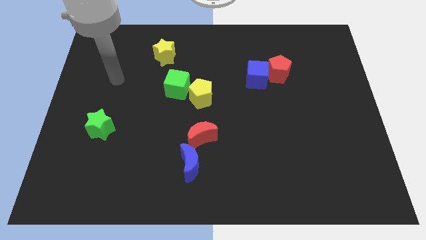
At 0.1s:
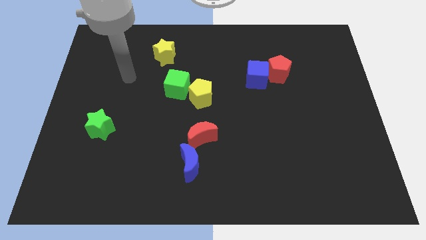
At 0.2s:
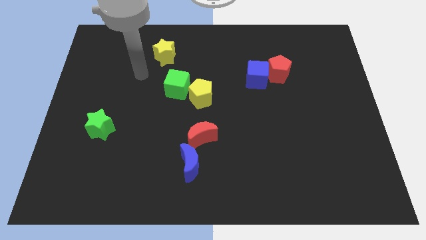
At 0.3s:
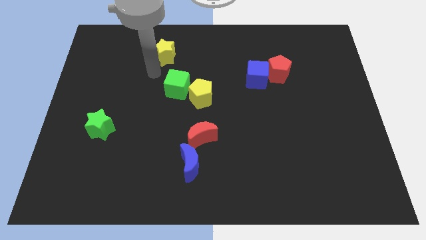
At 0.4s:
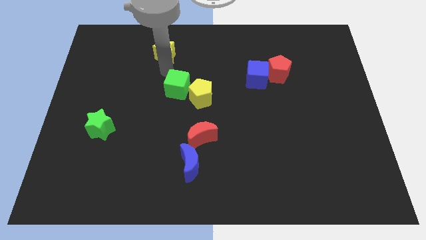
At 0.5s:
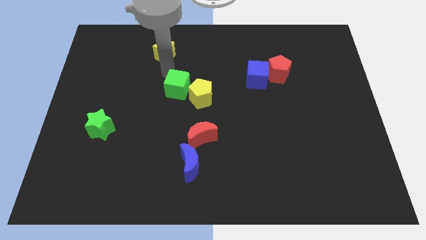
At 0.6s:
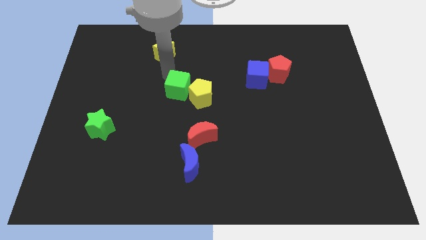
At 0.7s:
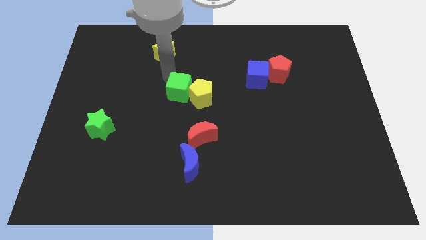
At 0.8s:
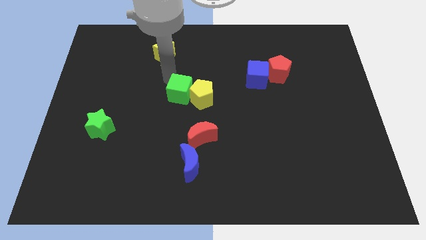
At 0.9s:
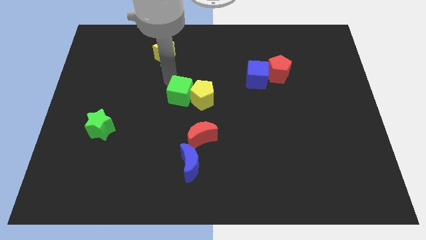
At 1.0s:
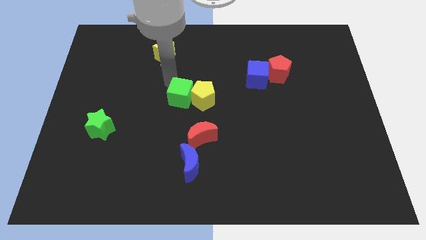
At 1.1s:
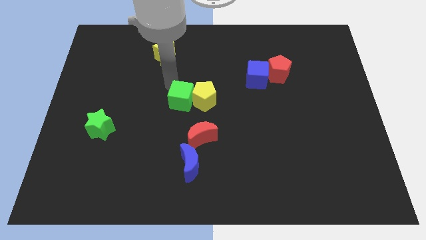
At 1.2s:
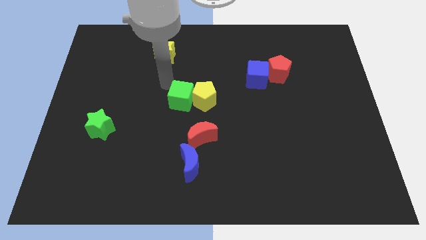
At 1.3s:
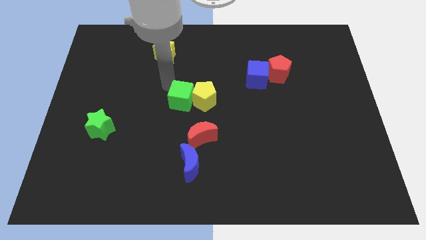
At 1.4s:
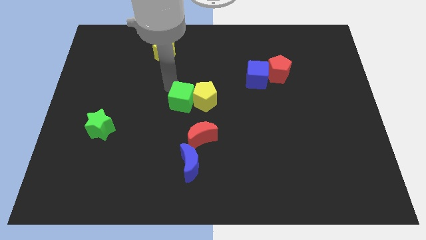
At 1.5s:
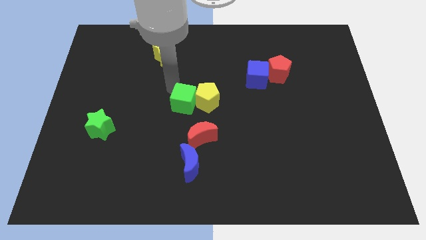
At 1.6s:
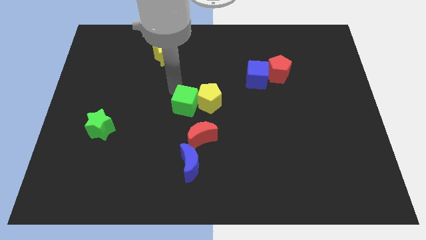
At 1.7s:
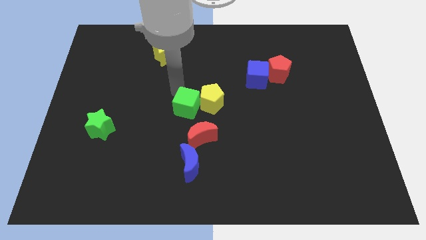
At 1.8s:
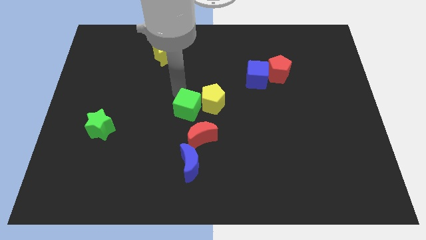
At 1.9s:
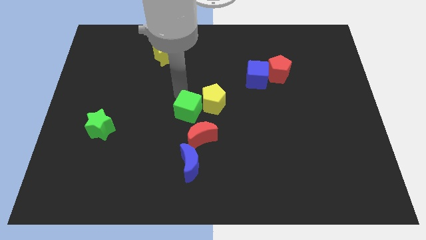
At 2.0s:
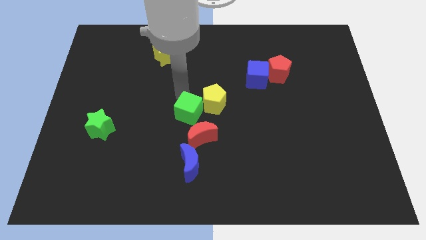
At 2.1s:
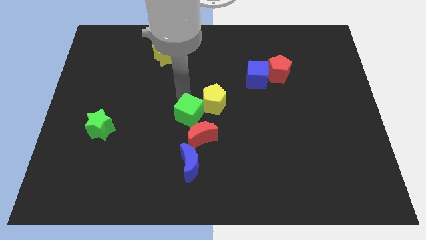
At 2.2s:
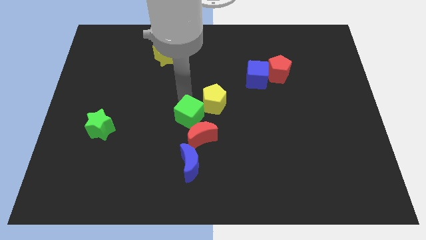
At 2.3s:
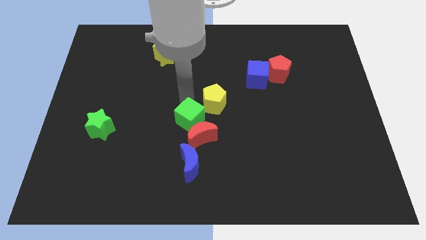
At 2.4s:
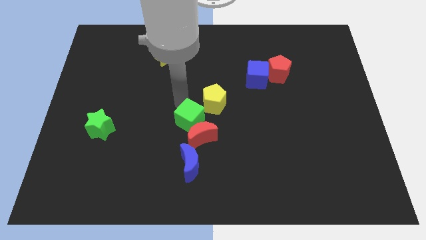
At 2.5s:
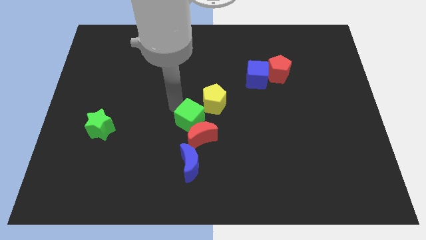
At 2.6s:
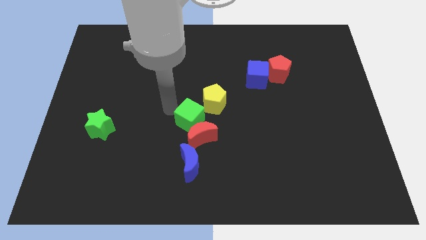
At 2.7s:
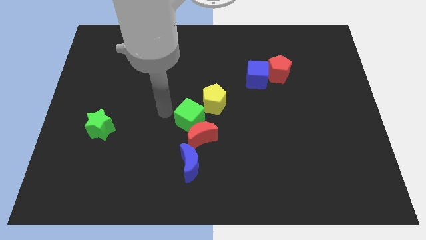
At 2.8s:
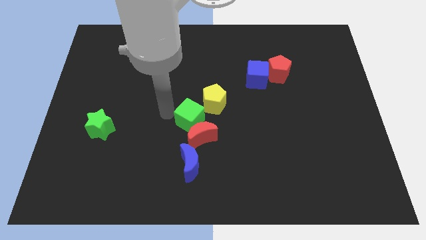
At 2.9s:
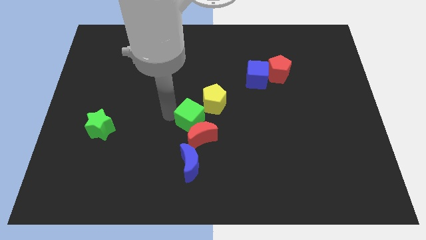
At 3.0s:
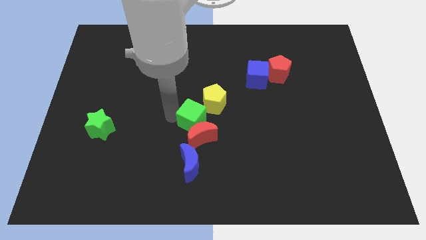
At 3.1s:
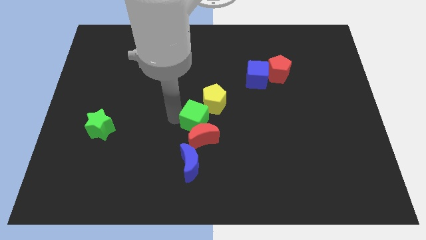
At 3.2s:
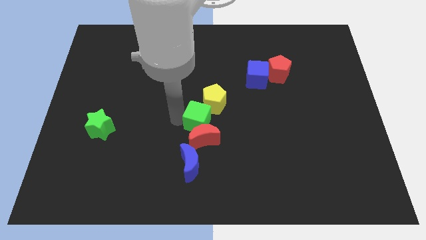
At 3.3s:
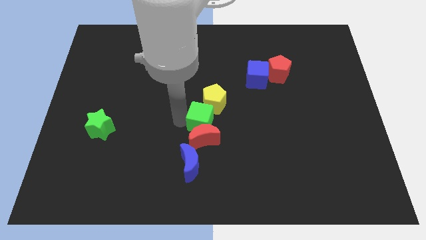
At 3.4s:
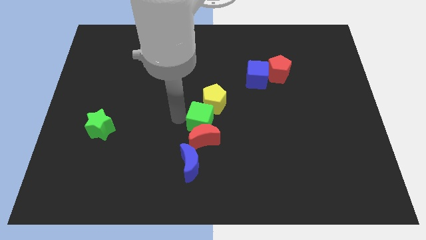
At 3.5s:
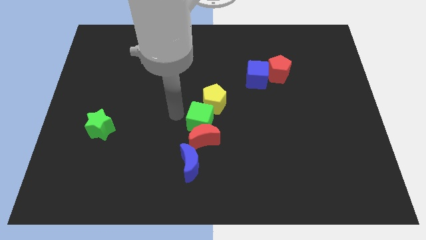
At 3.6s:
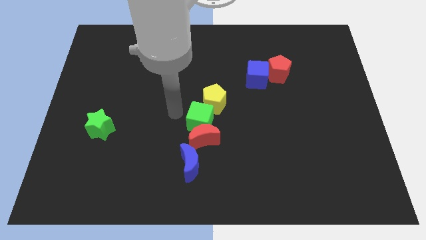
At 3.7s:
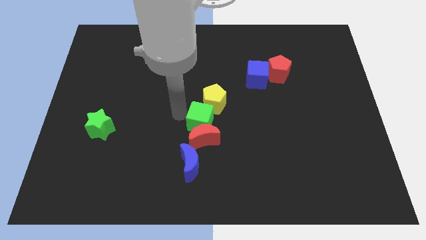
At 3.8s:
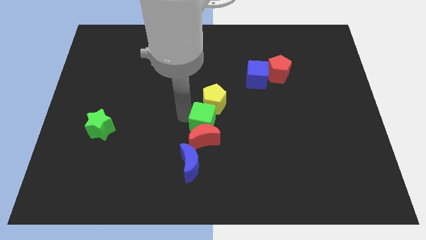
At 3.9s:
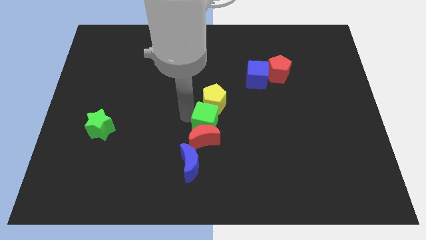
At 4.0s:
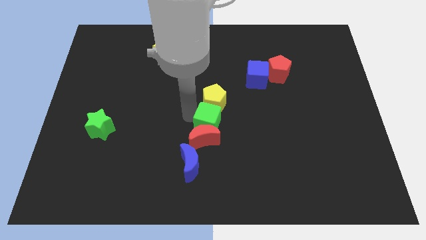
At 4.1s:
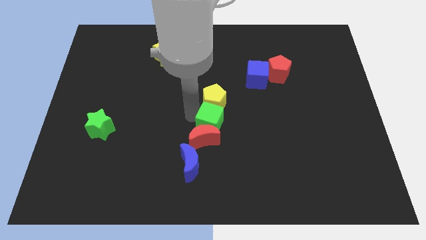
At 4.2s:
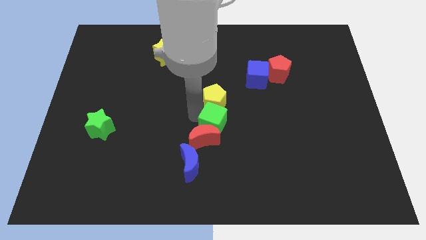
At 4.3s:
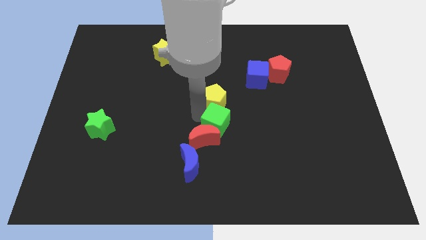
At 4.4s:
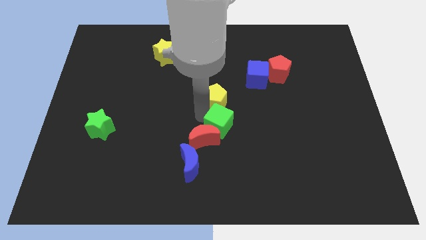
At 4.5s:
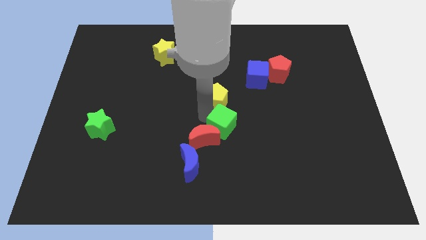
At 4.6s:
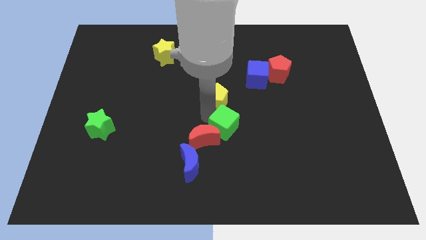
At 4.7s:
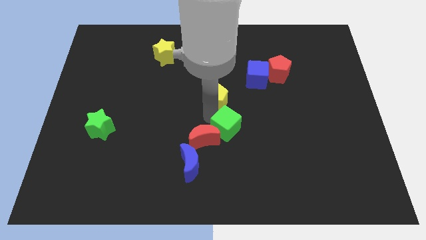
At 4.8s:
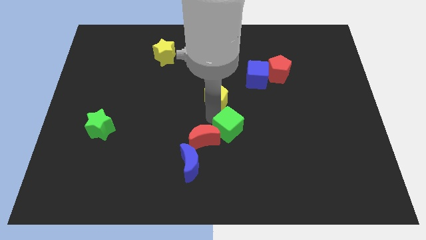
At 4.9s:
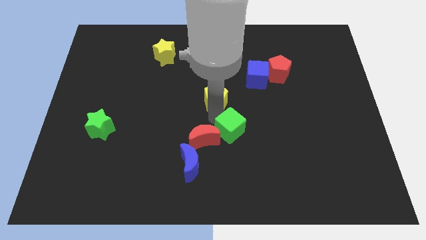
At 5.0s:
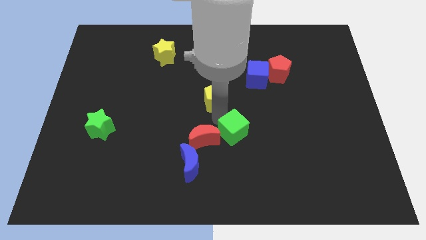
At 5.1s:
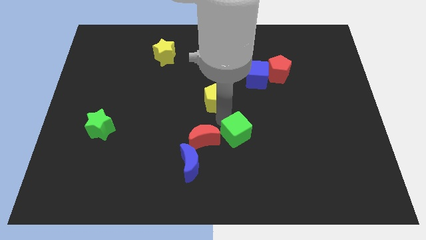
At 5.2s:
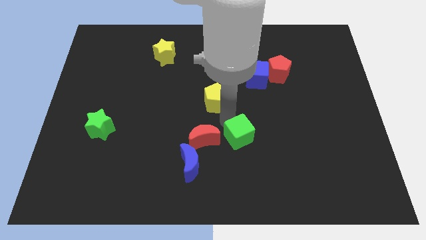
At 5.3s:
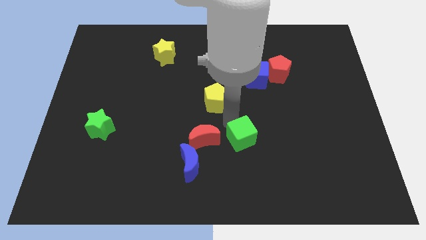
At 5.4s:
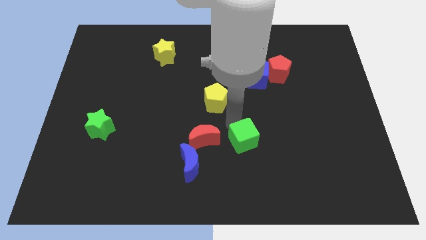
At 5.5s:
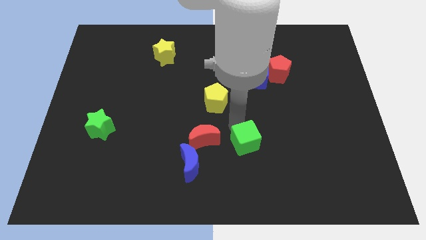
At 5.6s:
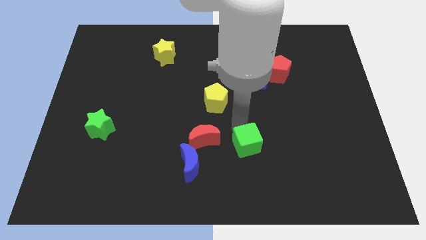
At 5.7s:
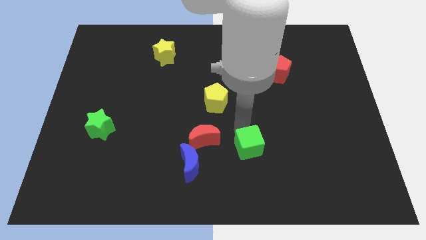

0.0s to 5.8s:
put the green cube to the right of the blue moon

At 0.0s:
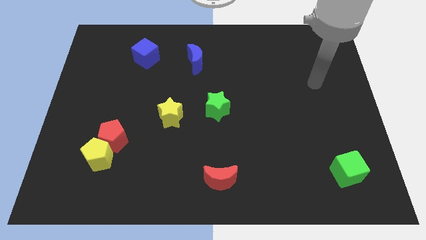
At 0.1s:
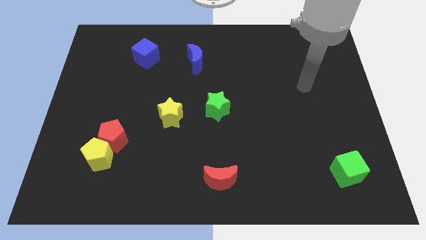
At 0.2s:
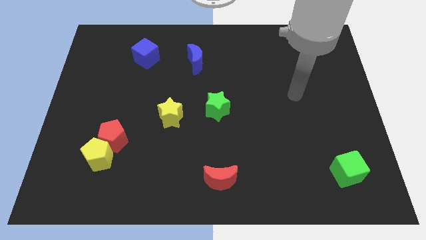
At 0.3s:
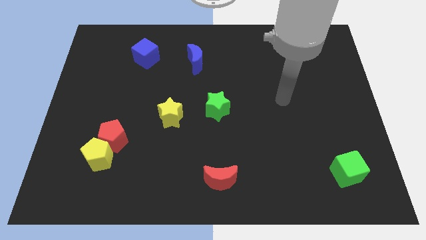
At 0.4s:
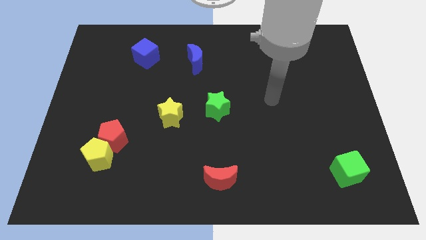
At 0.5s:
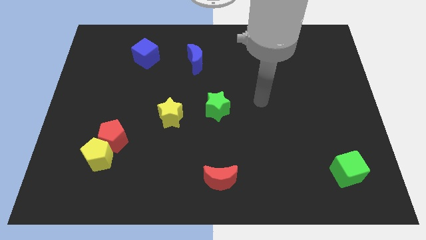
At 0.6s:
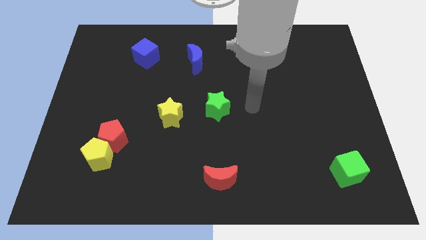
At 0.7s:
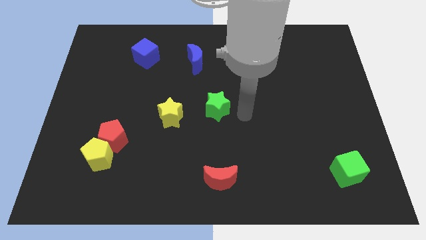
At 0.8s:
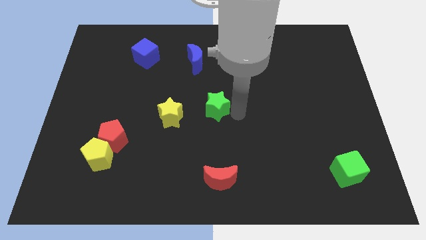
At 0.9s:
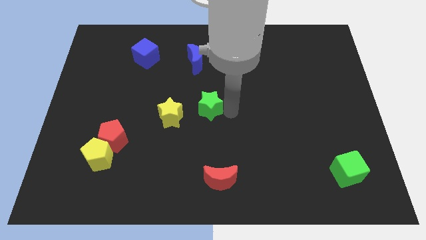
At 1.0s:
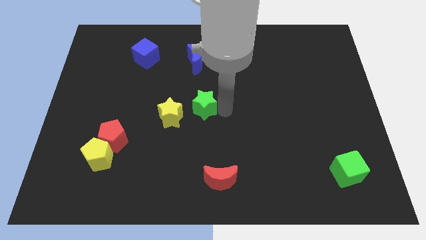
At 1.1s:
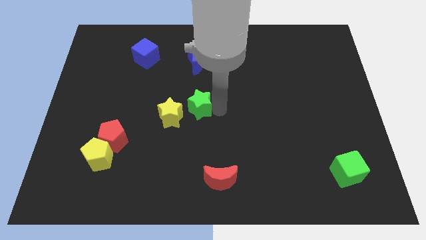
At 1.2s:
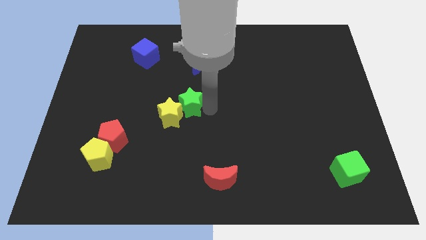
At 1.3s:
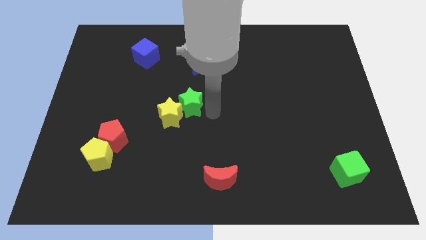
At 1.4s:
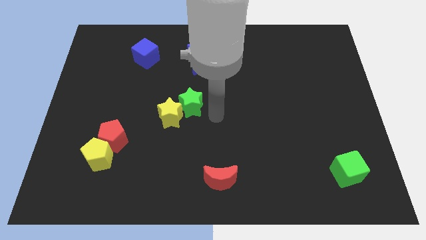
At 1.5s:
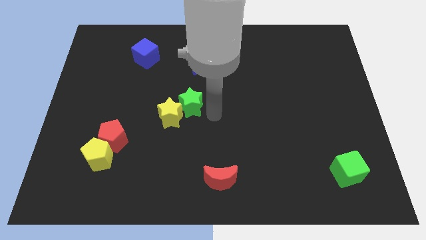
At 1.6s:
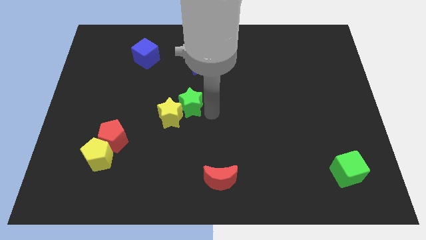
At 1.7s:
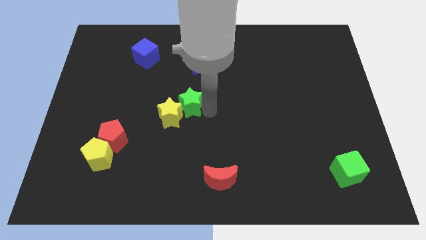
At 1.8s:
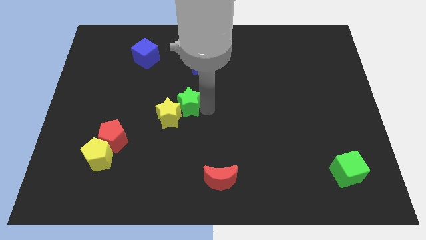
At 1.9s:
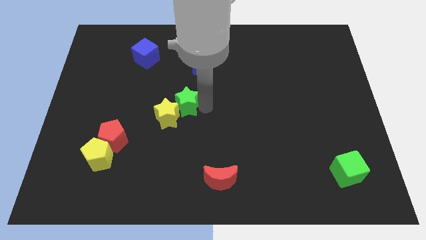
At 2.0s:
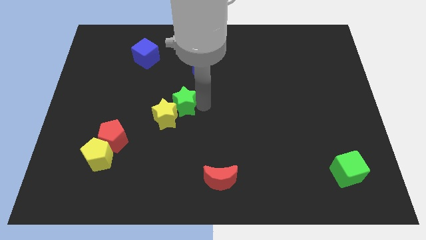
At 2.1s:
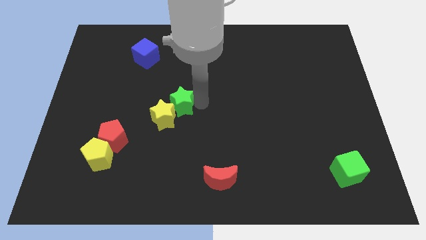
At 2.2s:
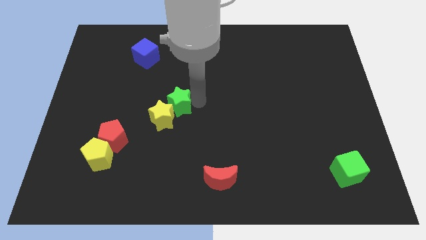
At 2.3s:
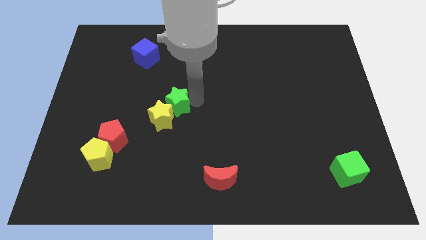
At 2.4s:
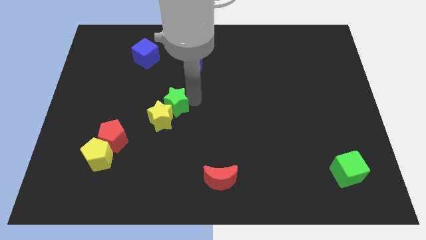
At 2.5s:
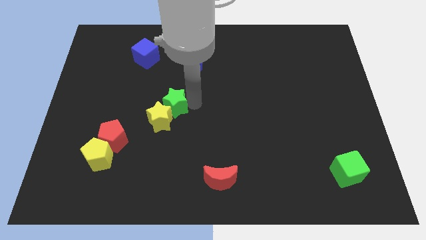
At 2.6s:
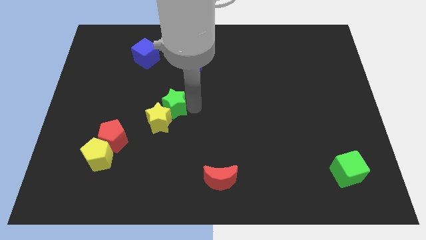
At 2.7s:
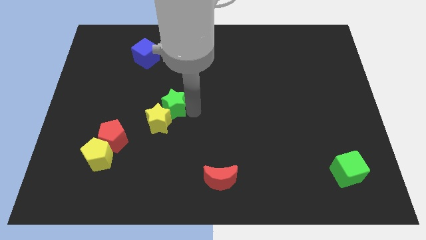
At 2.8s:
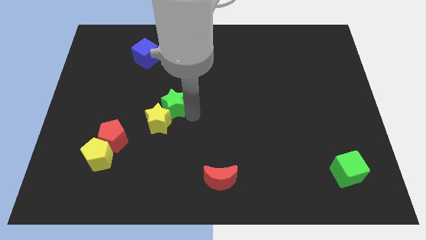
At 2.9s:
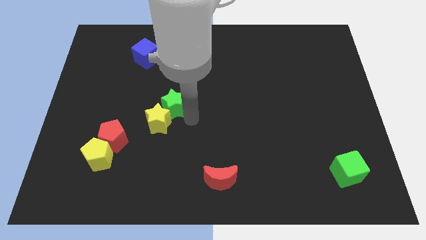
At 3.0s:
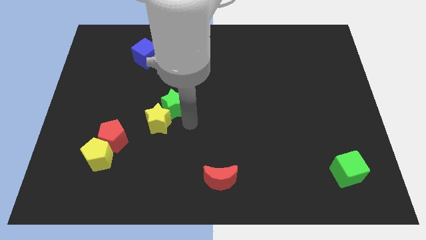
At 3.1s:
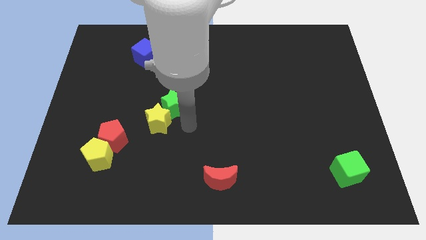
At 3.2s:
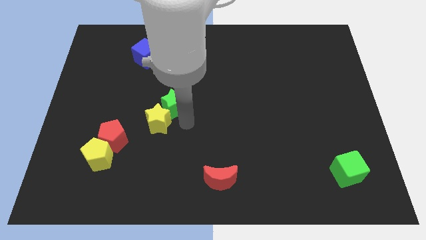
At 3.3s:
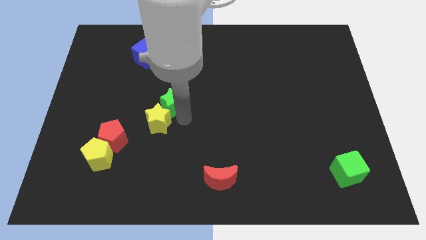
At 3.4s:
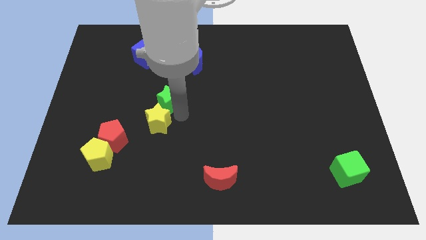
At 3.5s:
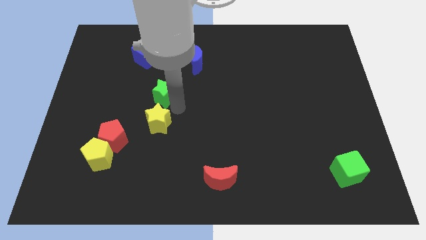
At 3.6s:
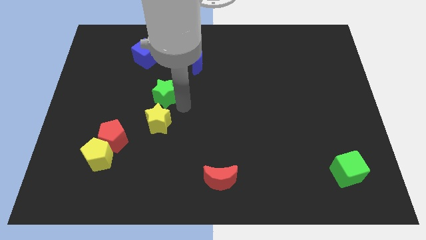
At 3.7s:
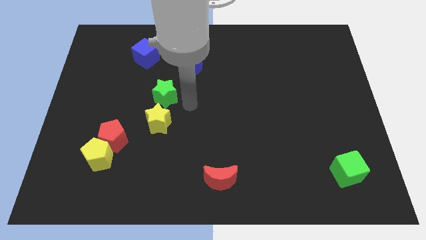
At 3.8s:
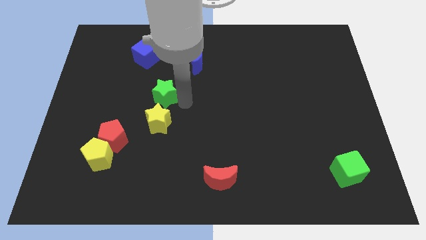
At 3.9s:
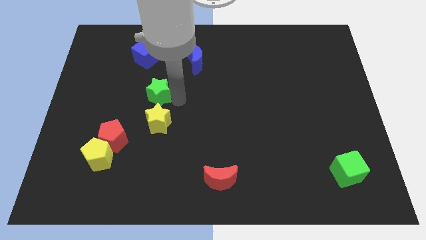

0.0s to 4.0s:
slide the green star to the bottom of the blue cube
